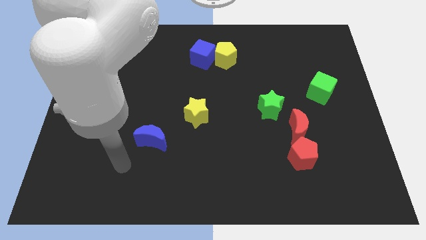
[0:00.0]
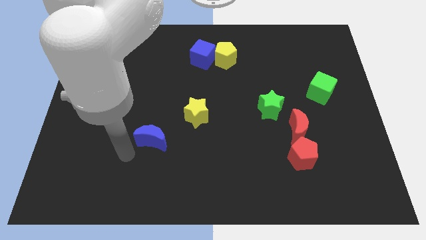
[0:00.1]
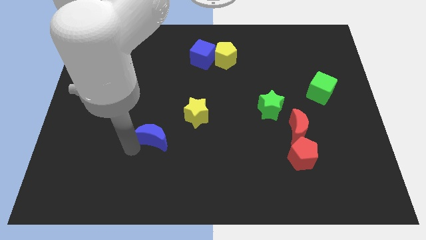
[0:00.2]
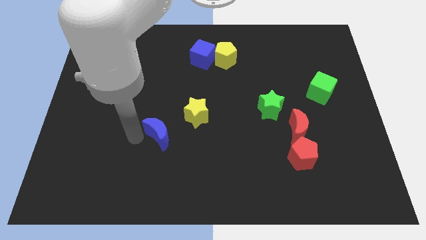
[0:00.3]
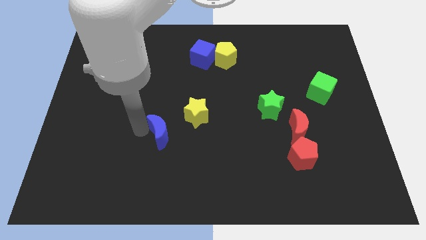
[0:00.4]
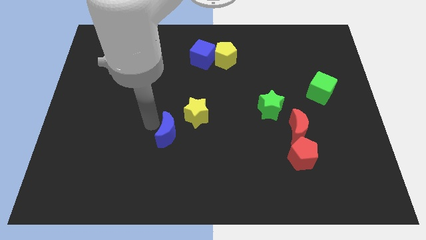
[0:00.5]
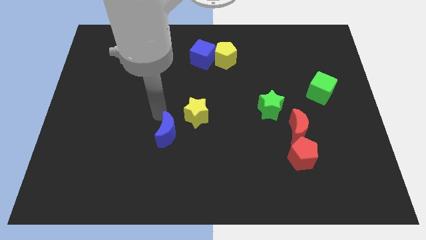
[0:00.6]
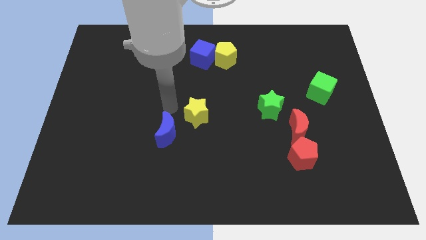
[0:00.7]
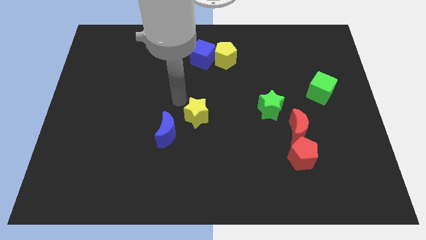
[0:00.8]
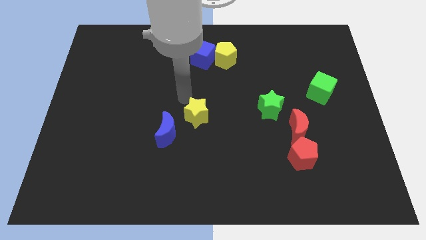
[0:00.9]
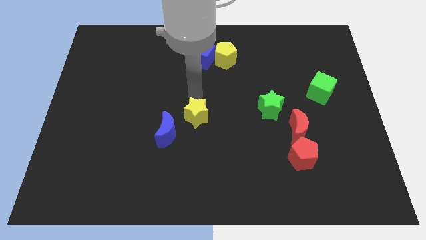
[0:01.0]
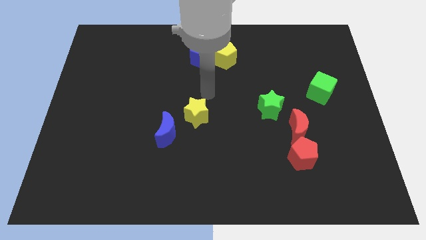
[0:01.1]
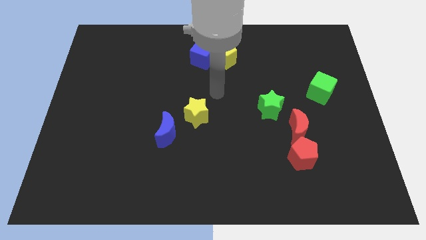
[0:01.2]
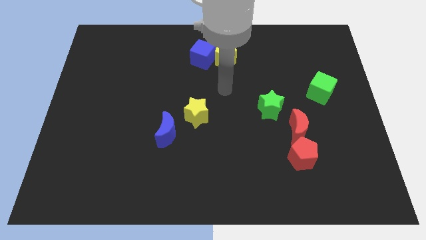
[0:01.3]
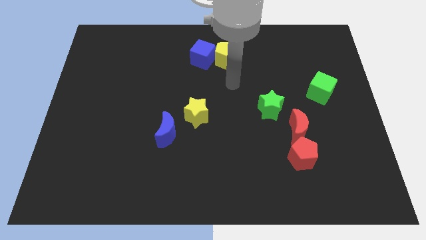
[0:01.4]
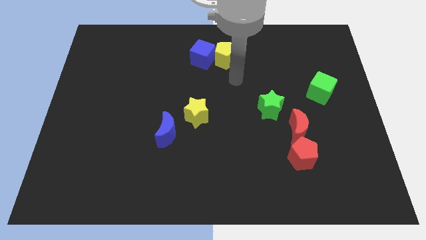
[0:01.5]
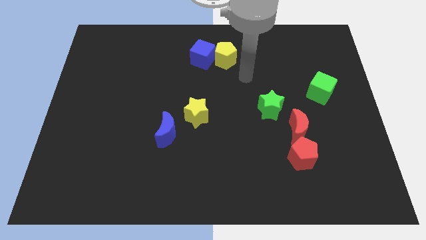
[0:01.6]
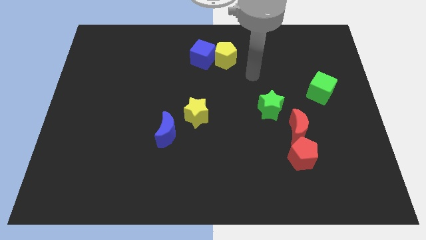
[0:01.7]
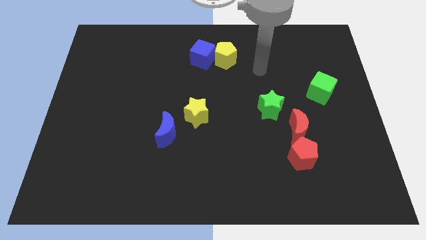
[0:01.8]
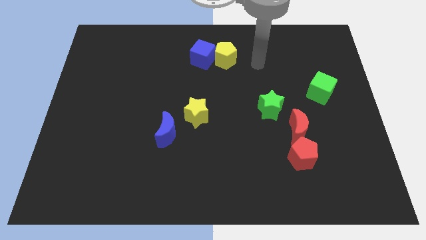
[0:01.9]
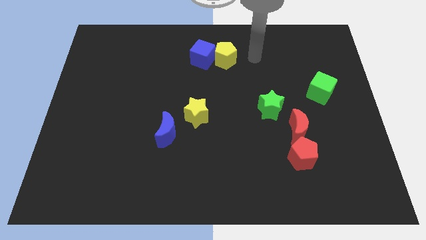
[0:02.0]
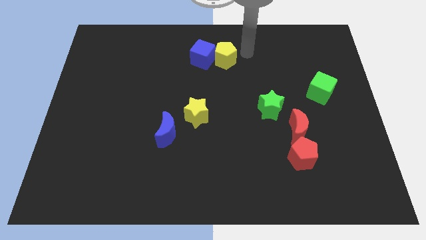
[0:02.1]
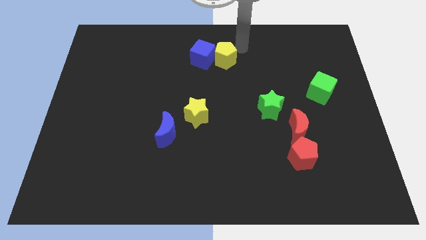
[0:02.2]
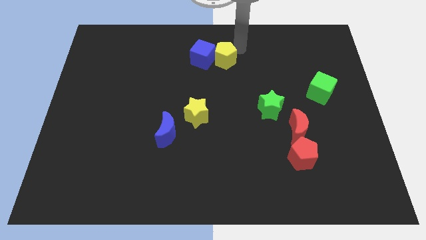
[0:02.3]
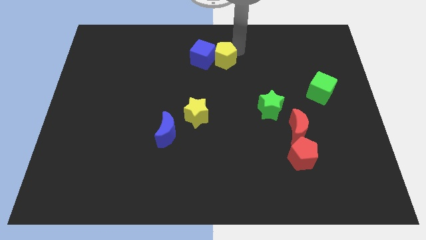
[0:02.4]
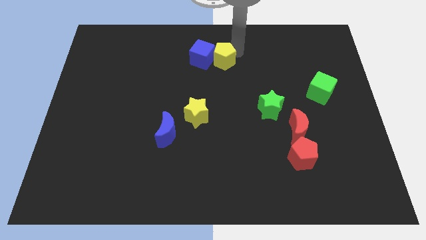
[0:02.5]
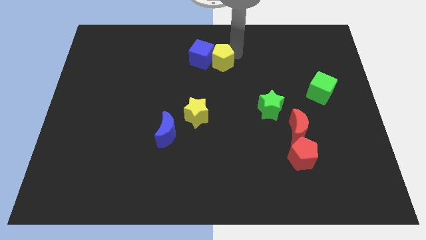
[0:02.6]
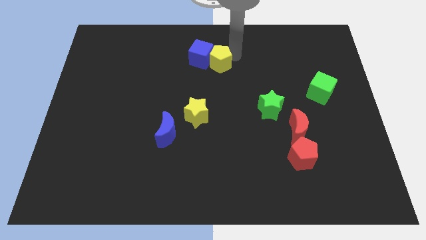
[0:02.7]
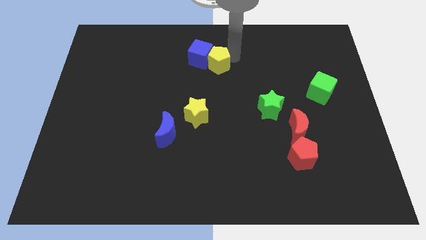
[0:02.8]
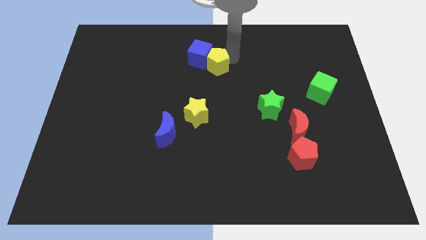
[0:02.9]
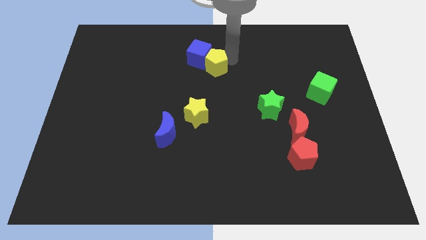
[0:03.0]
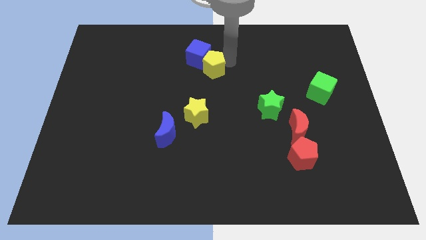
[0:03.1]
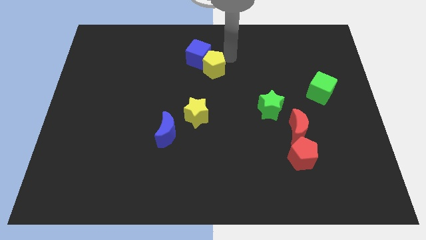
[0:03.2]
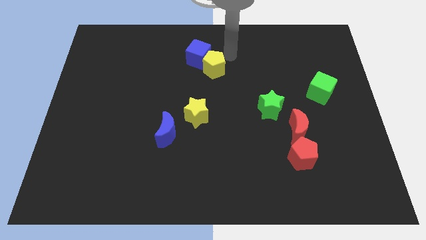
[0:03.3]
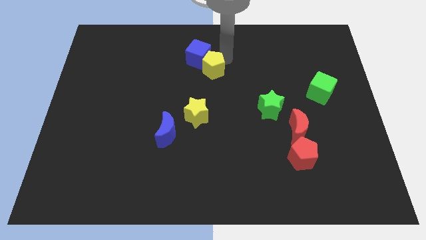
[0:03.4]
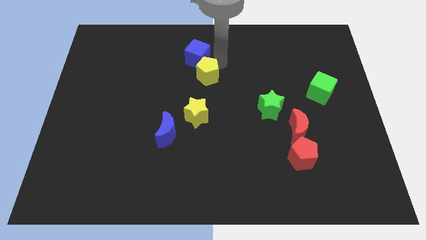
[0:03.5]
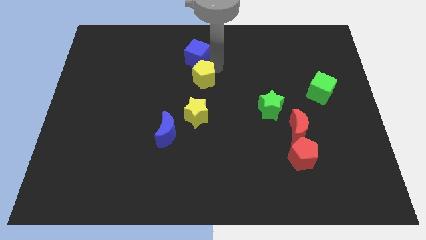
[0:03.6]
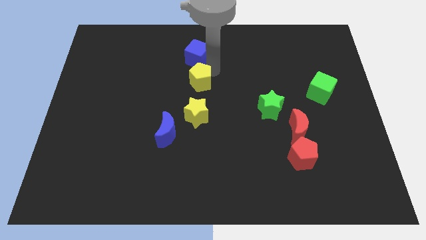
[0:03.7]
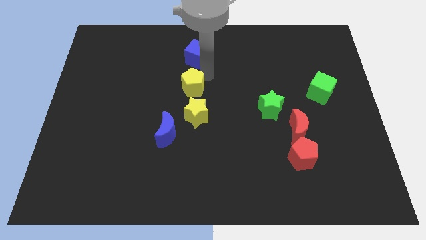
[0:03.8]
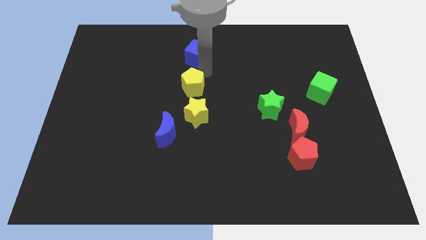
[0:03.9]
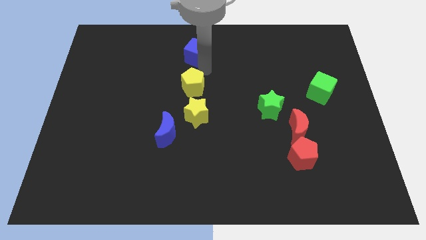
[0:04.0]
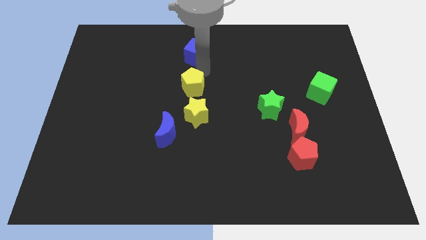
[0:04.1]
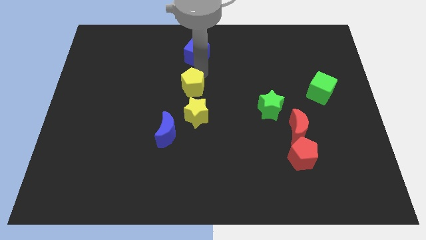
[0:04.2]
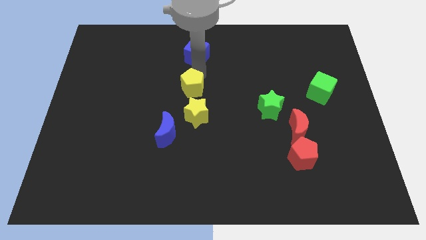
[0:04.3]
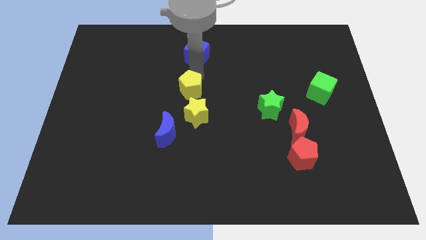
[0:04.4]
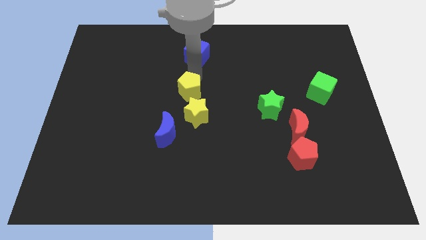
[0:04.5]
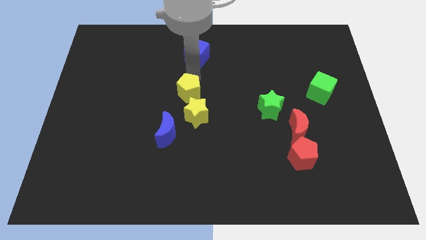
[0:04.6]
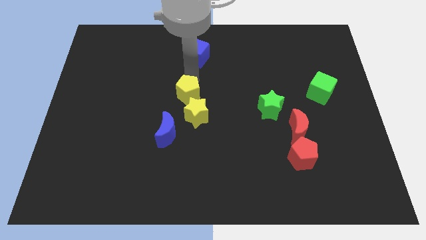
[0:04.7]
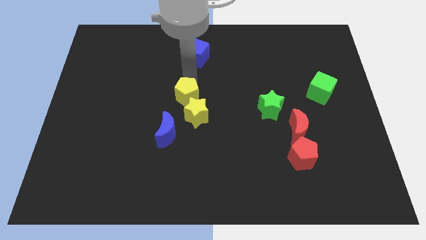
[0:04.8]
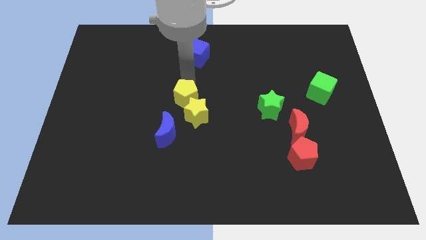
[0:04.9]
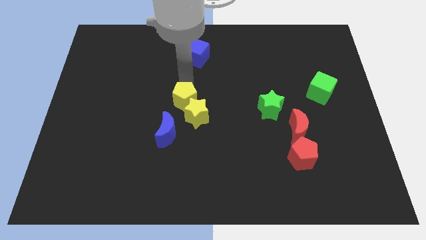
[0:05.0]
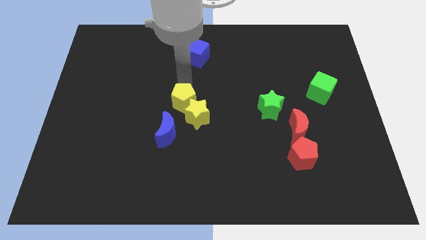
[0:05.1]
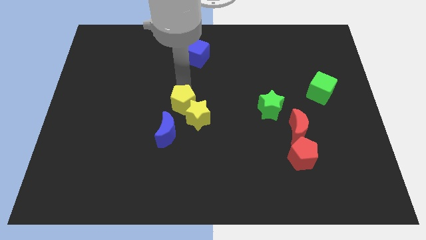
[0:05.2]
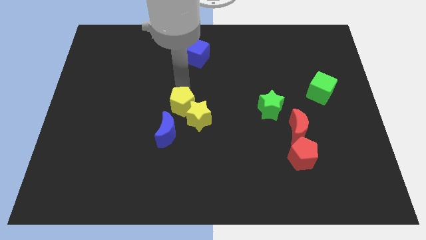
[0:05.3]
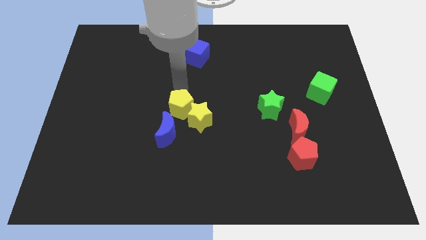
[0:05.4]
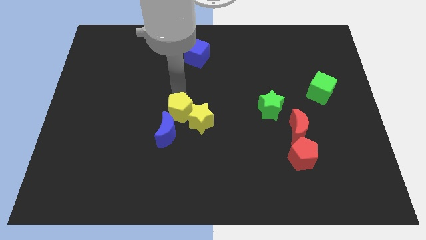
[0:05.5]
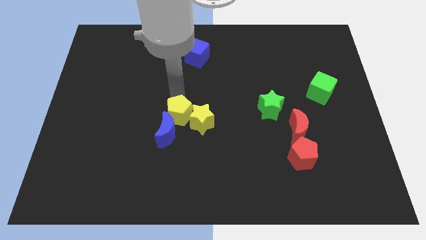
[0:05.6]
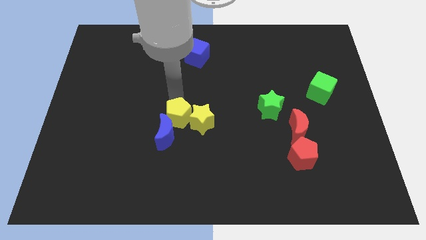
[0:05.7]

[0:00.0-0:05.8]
move the yellow pentagon diagonally down and to the left of the yellow star

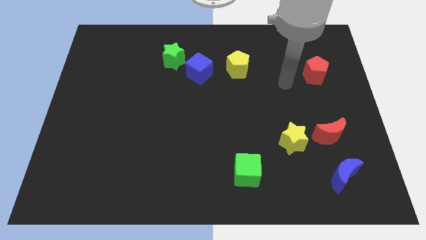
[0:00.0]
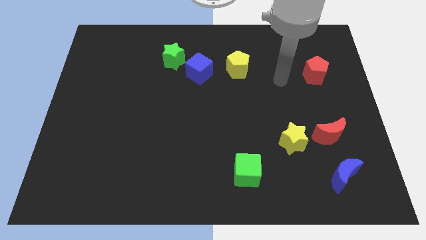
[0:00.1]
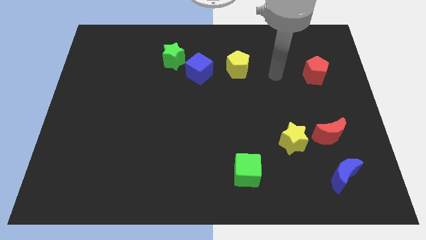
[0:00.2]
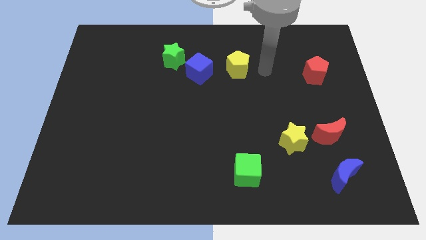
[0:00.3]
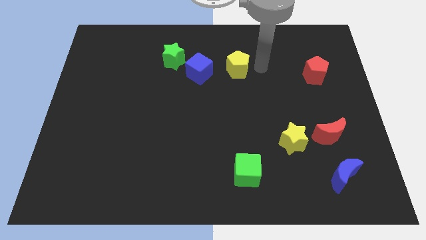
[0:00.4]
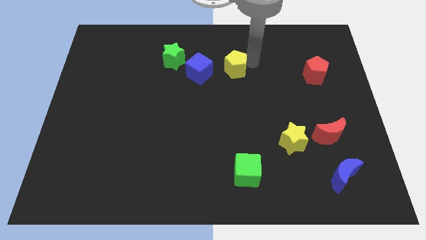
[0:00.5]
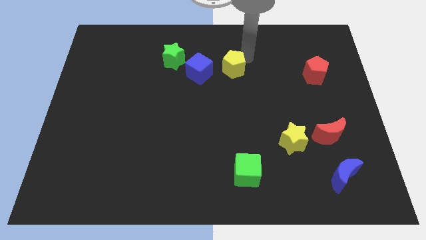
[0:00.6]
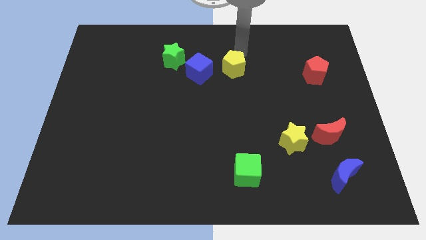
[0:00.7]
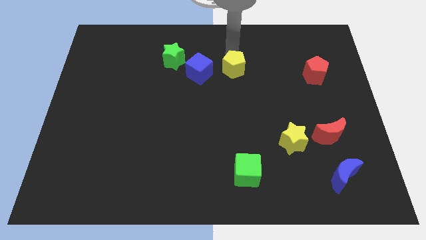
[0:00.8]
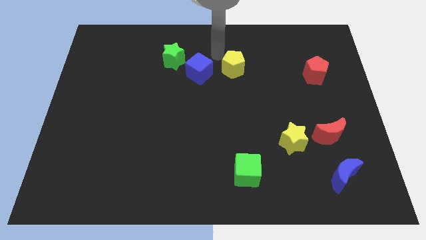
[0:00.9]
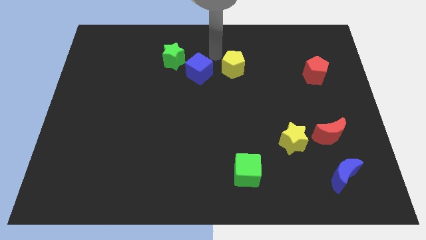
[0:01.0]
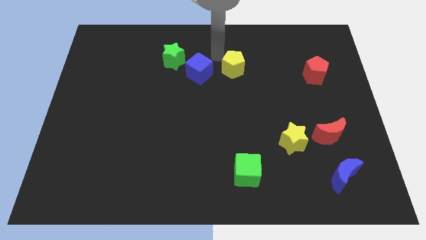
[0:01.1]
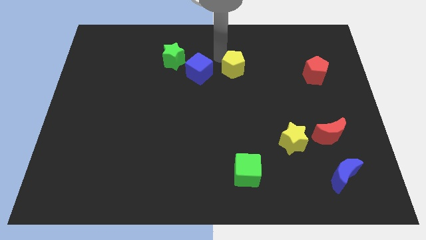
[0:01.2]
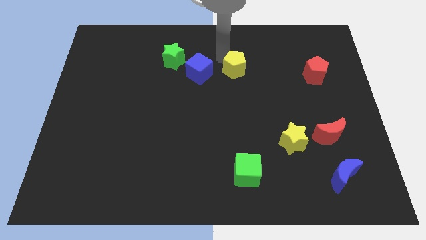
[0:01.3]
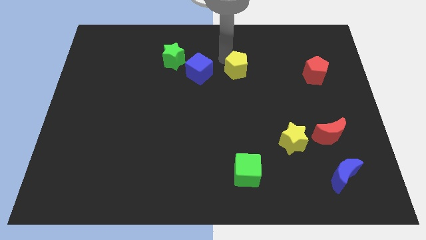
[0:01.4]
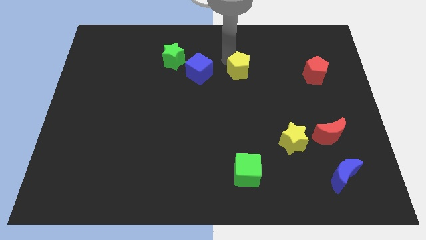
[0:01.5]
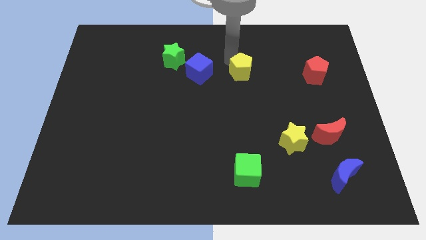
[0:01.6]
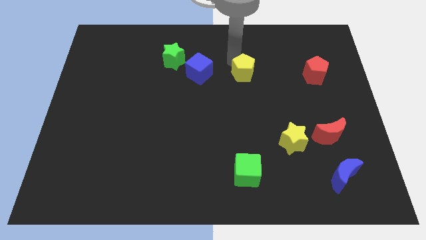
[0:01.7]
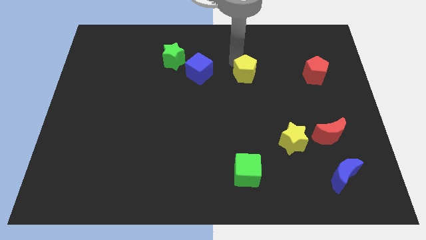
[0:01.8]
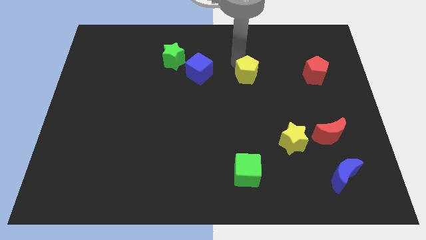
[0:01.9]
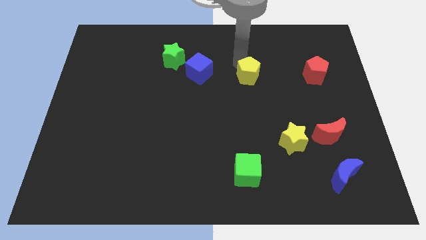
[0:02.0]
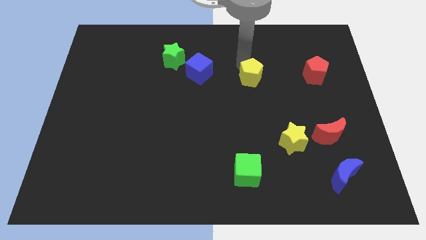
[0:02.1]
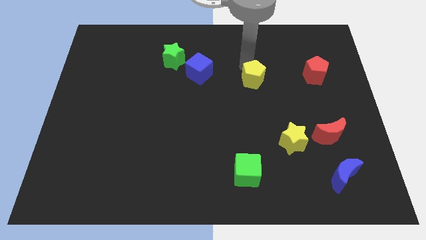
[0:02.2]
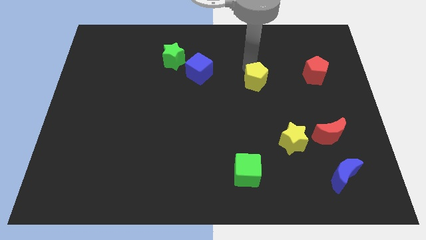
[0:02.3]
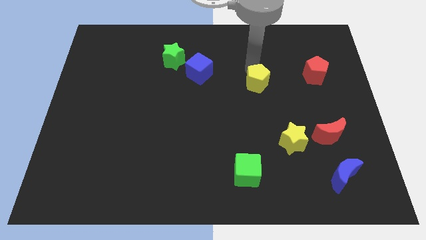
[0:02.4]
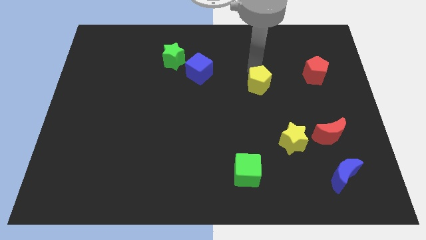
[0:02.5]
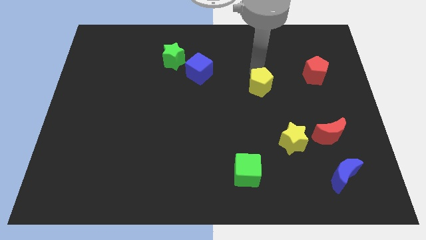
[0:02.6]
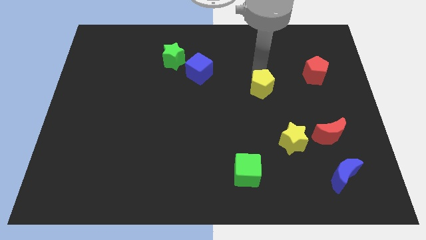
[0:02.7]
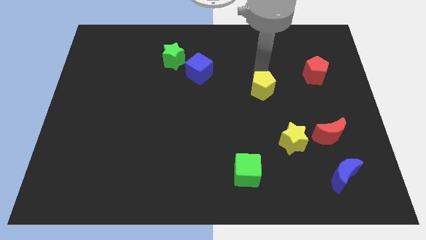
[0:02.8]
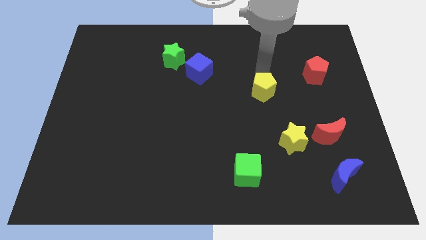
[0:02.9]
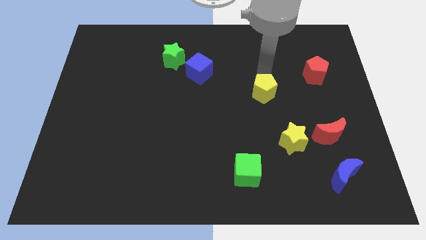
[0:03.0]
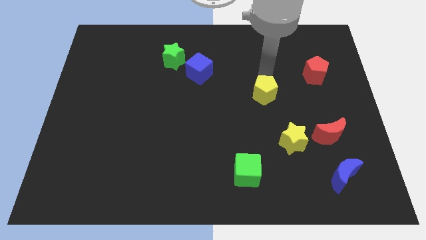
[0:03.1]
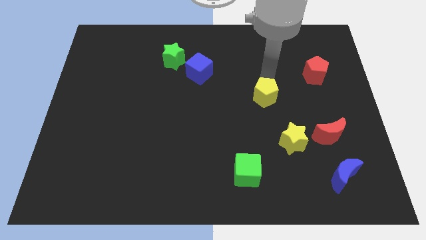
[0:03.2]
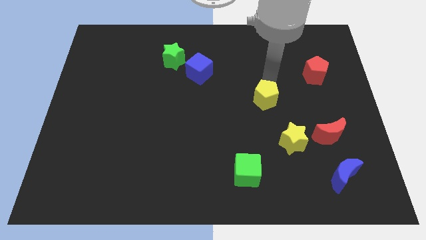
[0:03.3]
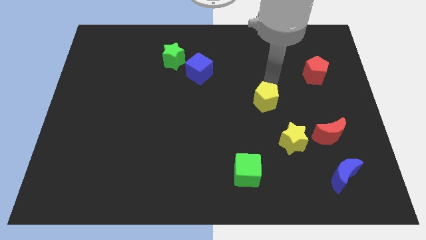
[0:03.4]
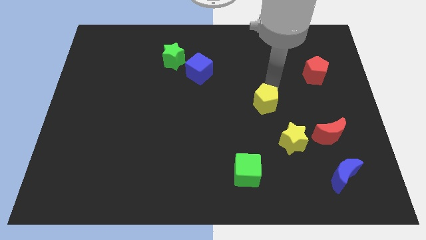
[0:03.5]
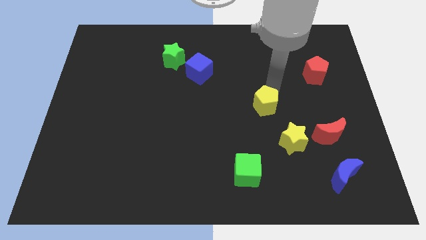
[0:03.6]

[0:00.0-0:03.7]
move the yellow pentagon diagonally up and to the left of the yellow star
